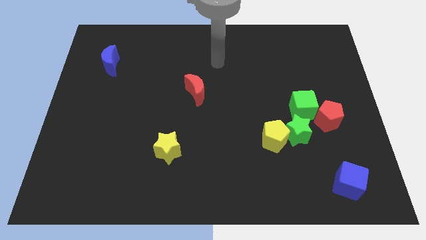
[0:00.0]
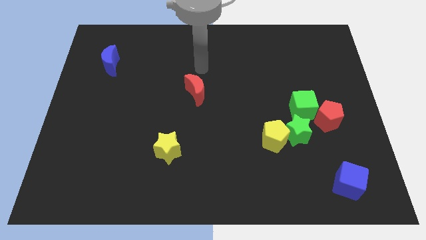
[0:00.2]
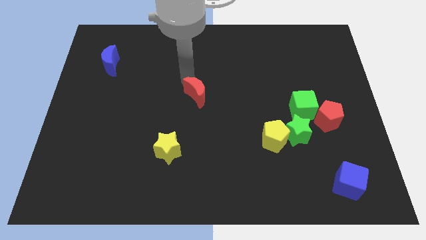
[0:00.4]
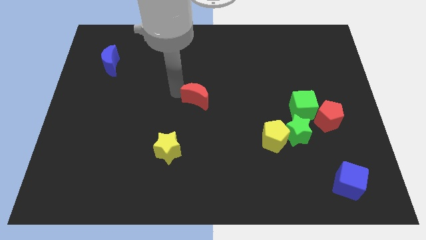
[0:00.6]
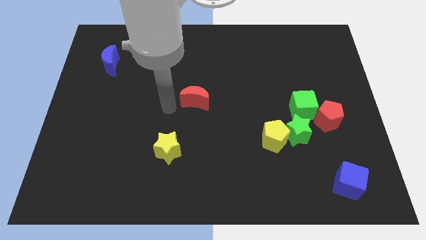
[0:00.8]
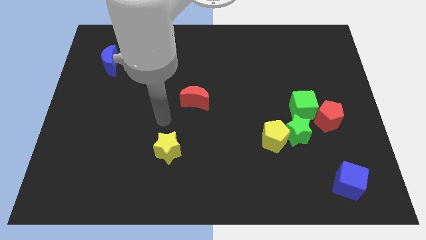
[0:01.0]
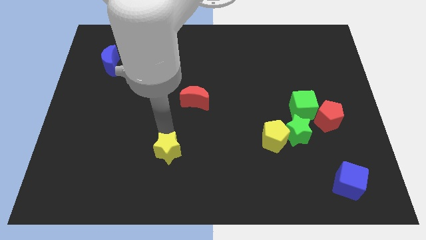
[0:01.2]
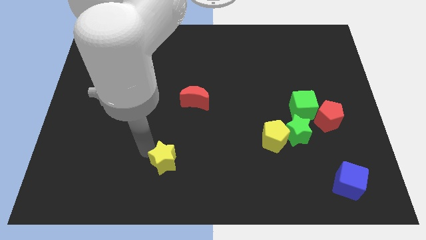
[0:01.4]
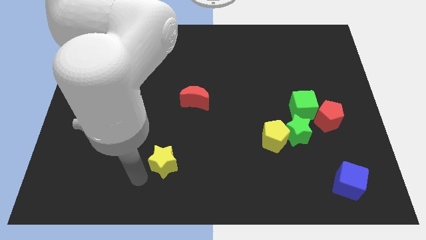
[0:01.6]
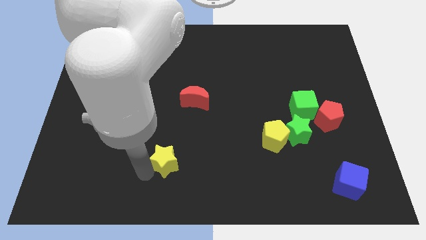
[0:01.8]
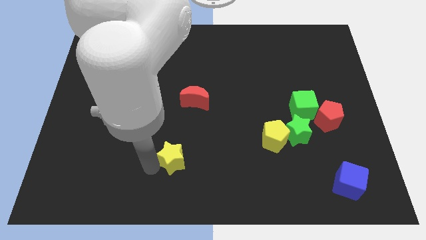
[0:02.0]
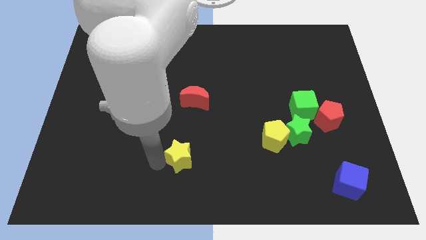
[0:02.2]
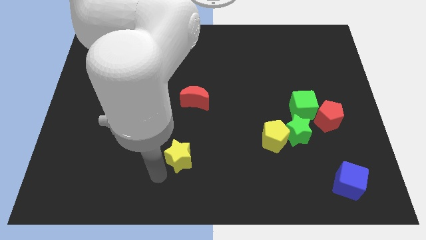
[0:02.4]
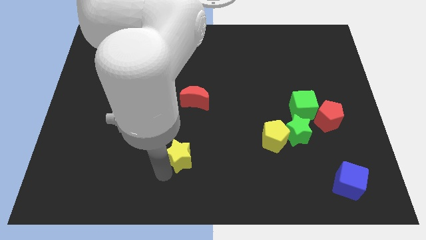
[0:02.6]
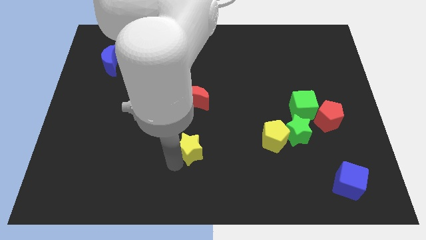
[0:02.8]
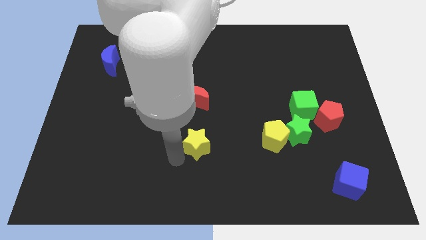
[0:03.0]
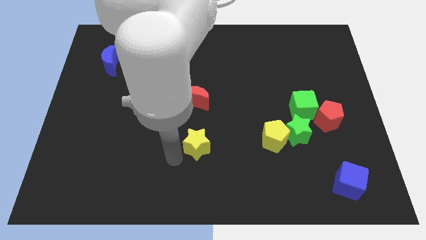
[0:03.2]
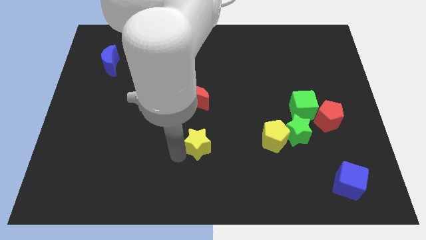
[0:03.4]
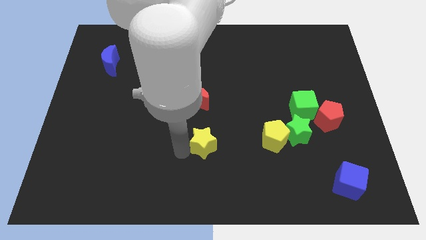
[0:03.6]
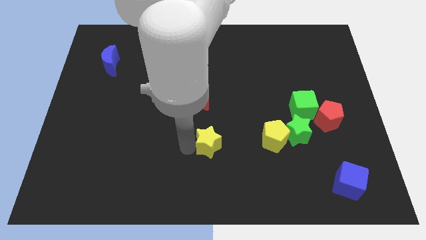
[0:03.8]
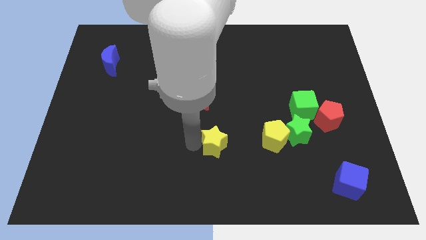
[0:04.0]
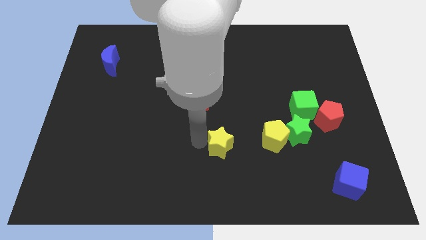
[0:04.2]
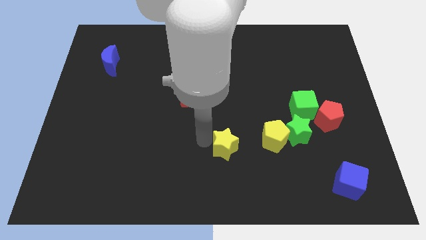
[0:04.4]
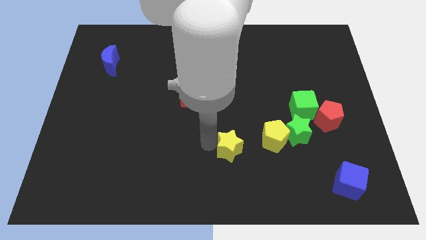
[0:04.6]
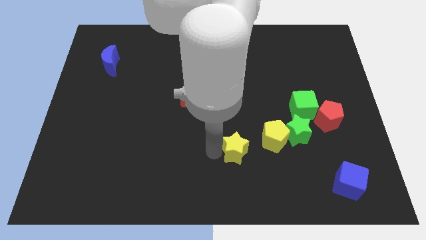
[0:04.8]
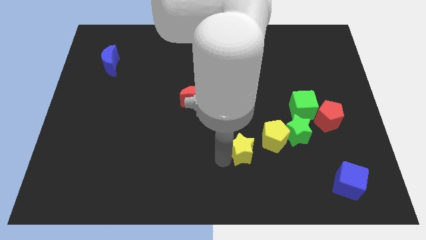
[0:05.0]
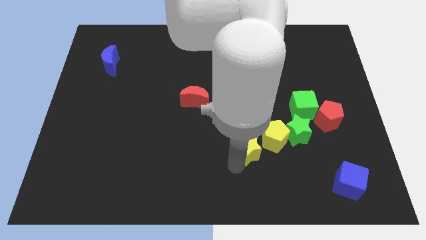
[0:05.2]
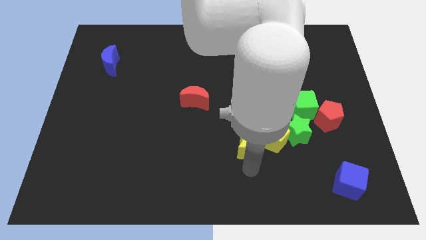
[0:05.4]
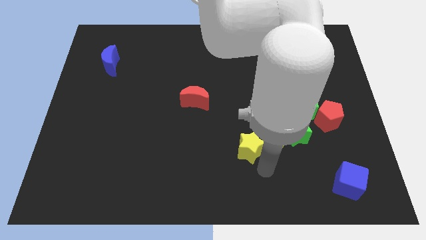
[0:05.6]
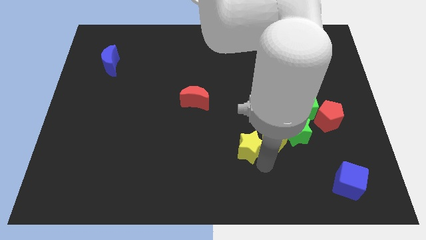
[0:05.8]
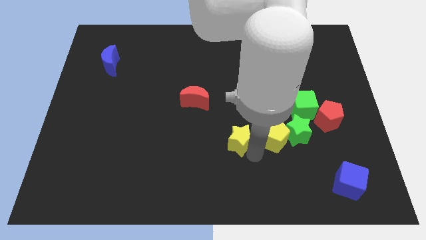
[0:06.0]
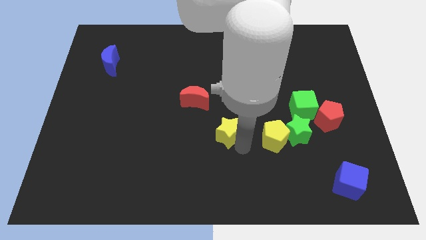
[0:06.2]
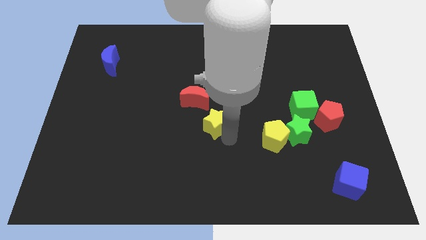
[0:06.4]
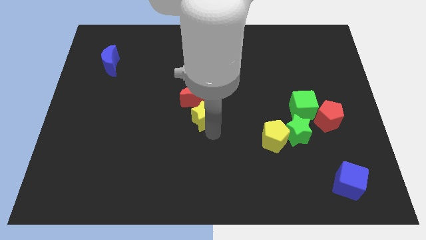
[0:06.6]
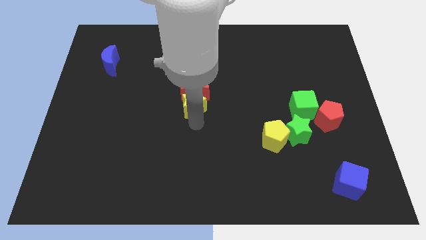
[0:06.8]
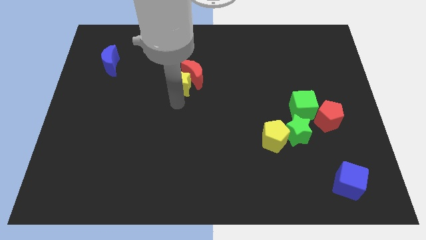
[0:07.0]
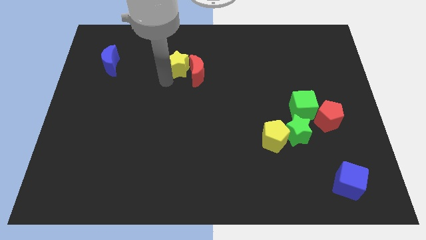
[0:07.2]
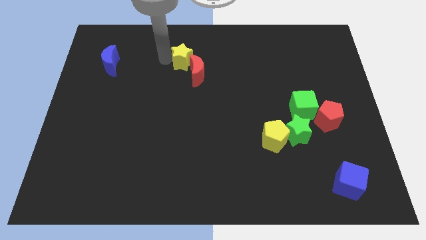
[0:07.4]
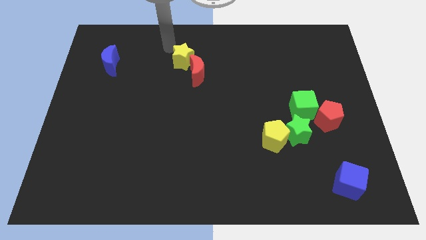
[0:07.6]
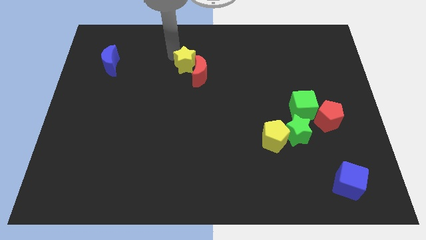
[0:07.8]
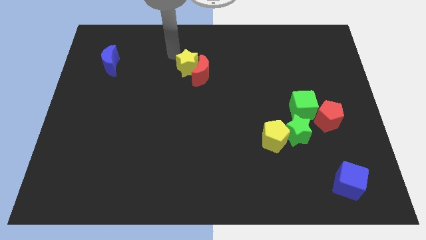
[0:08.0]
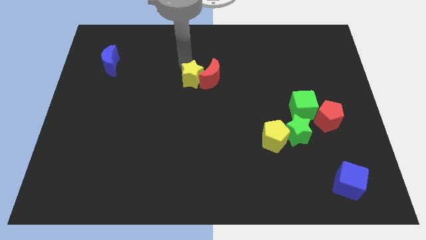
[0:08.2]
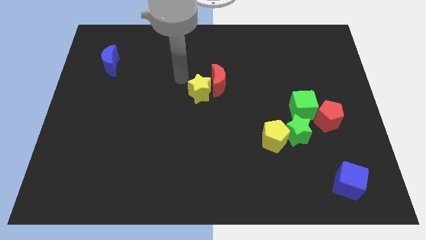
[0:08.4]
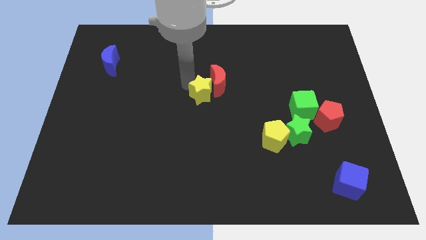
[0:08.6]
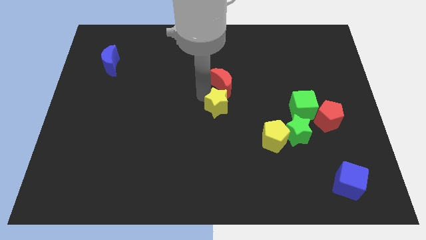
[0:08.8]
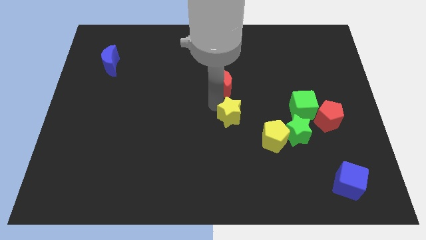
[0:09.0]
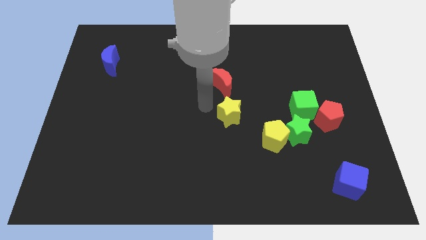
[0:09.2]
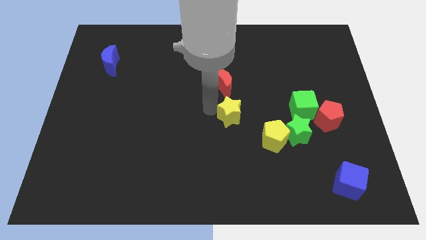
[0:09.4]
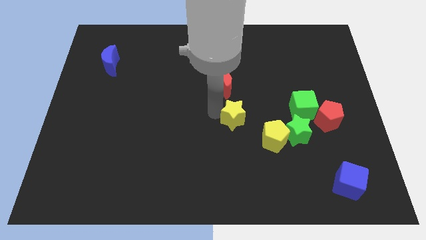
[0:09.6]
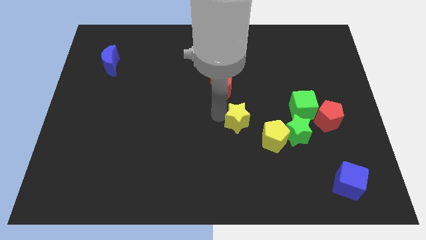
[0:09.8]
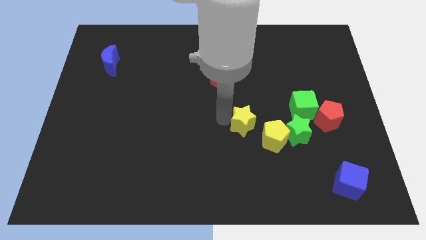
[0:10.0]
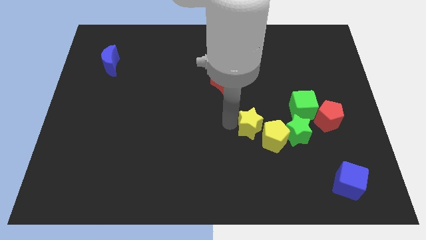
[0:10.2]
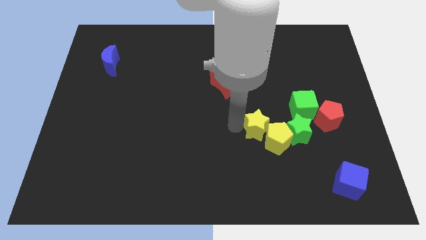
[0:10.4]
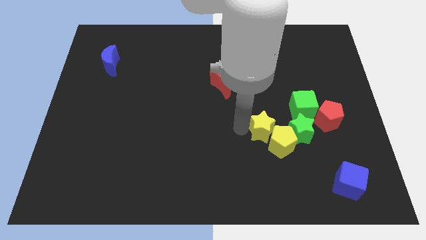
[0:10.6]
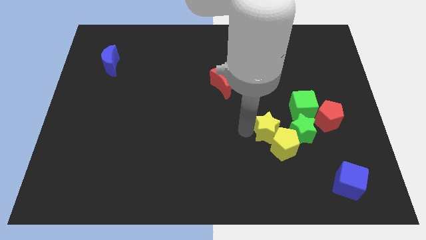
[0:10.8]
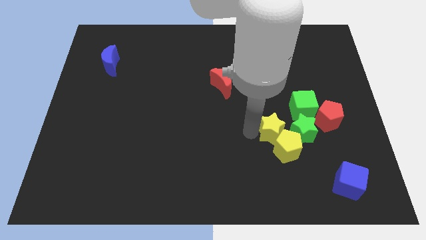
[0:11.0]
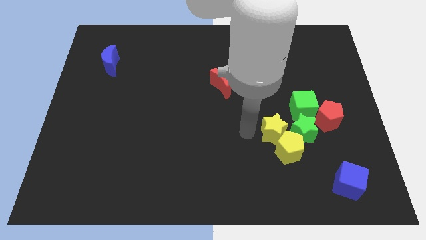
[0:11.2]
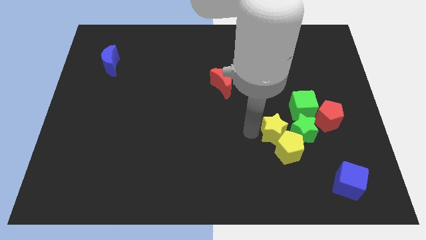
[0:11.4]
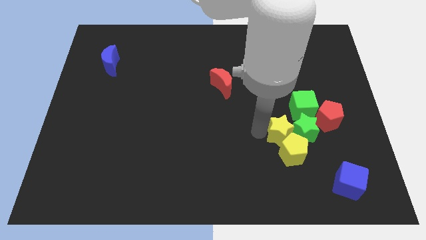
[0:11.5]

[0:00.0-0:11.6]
slide the yellow star to the green star
